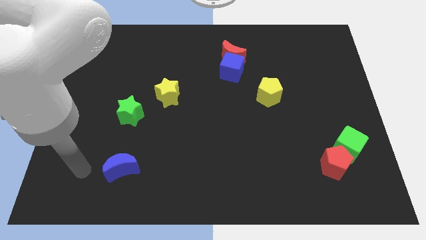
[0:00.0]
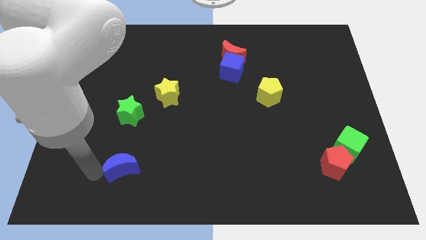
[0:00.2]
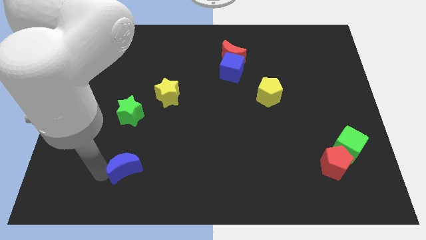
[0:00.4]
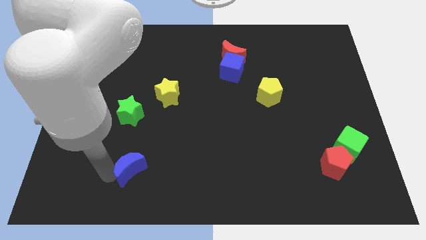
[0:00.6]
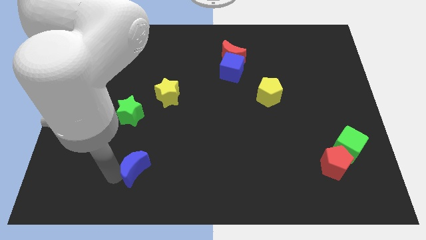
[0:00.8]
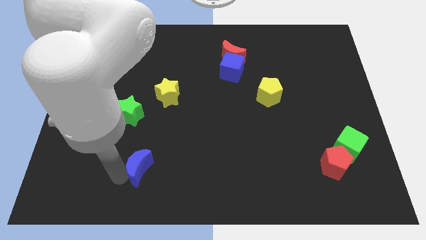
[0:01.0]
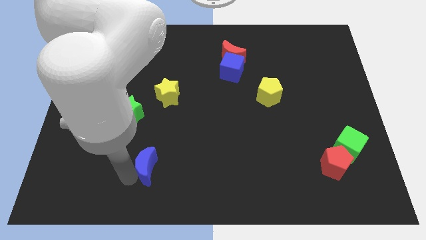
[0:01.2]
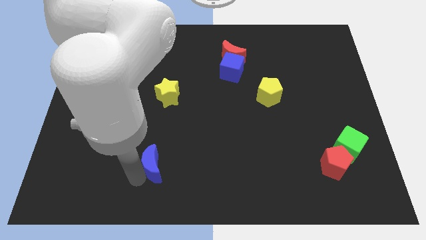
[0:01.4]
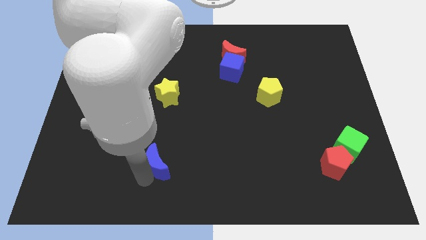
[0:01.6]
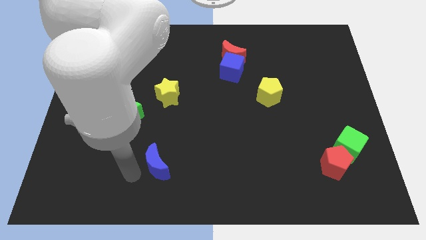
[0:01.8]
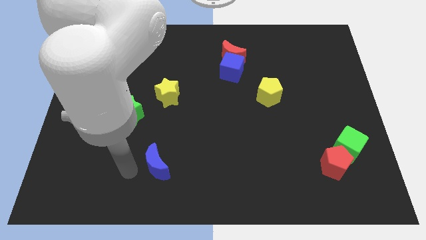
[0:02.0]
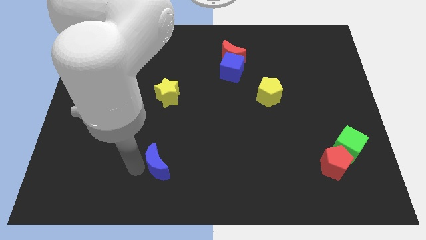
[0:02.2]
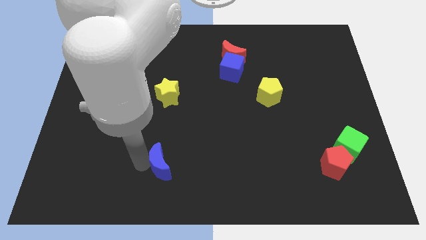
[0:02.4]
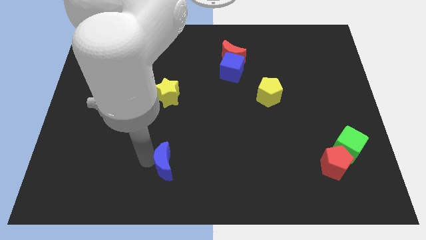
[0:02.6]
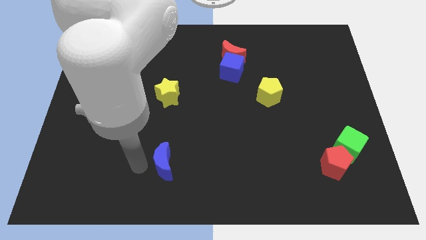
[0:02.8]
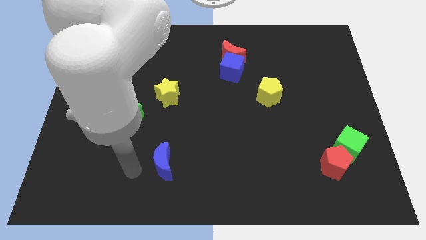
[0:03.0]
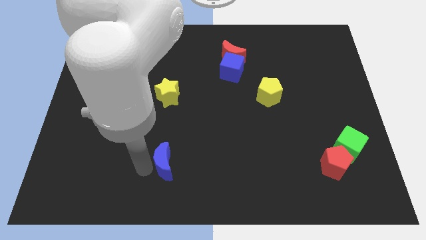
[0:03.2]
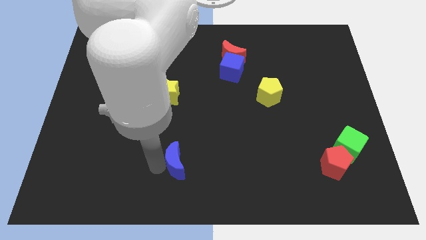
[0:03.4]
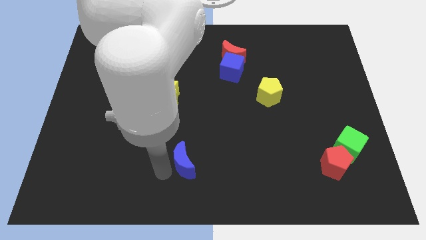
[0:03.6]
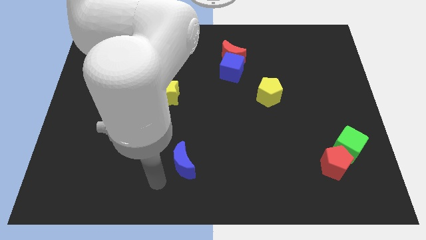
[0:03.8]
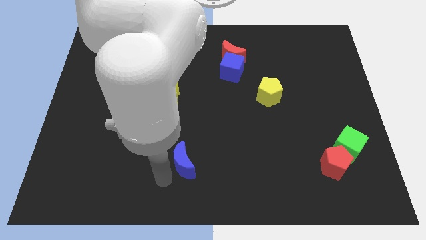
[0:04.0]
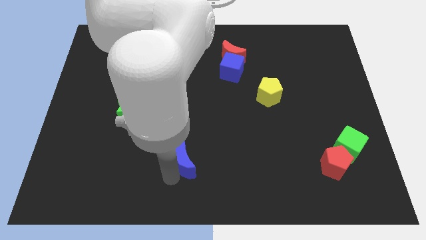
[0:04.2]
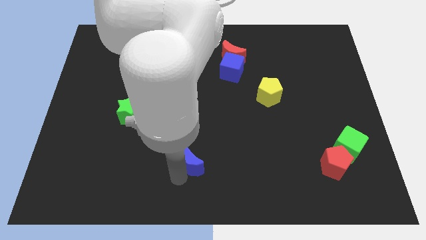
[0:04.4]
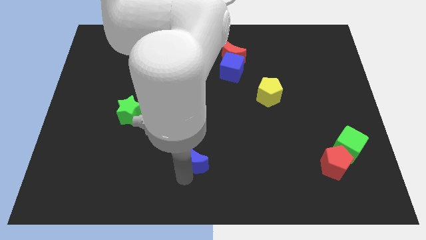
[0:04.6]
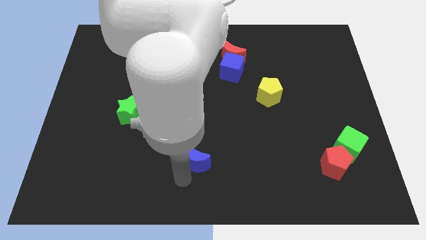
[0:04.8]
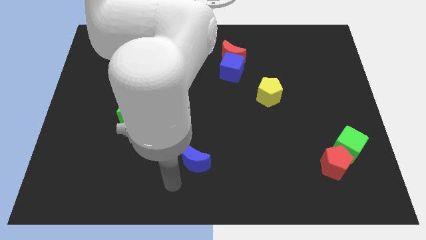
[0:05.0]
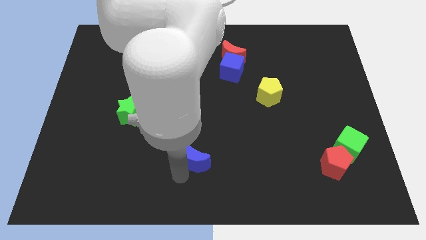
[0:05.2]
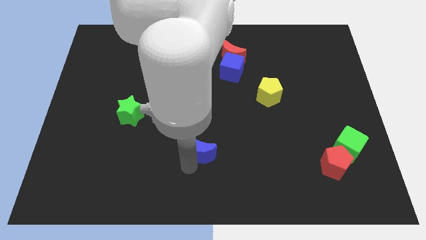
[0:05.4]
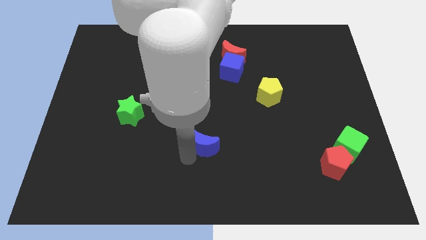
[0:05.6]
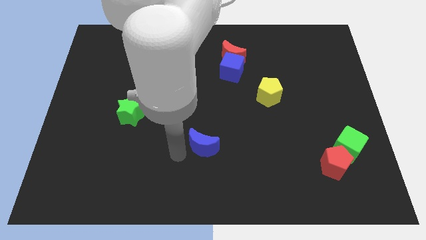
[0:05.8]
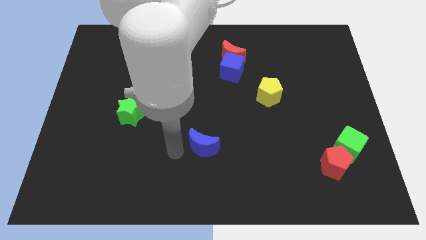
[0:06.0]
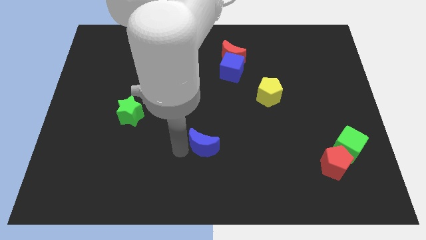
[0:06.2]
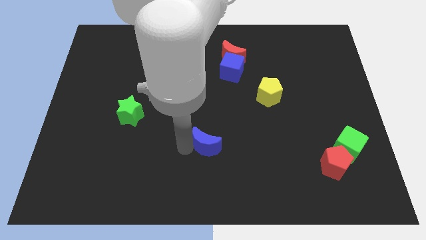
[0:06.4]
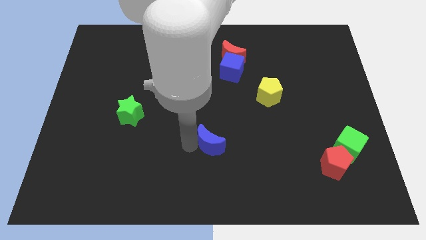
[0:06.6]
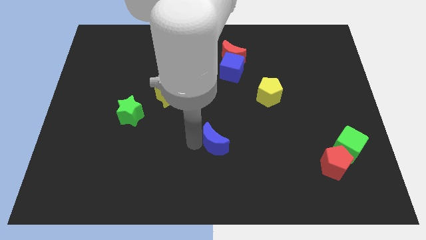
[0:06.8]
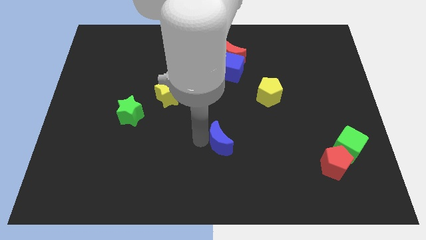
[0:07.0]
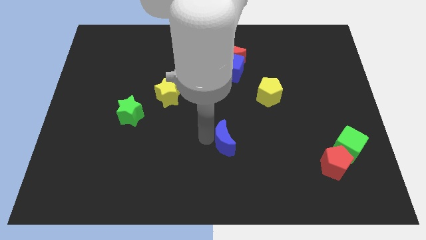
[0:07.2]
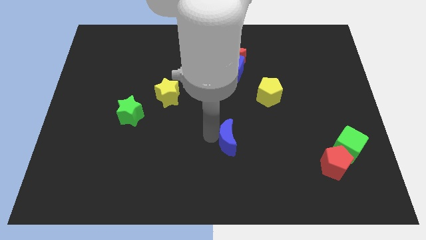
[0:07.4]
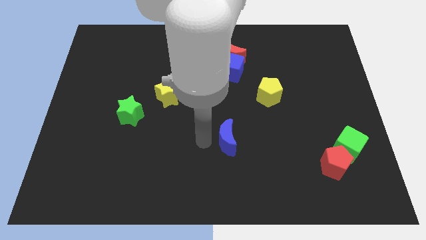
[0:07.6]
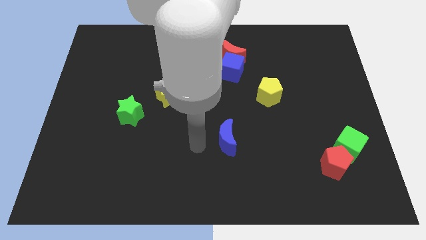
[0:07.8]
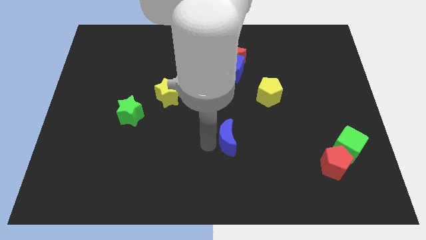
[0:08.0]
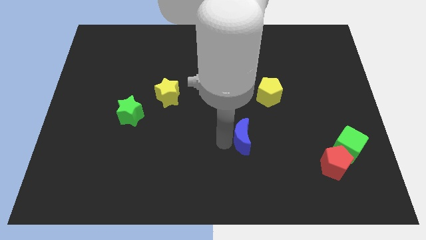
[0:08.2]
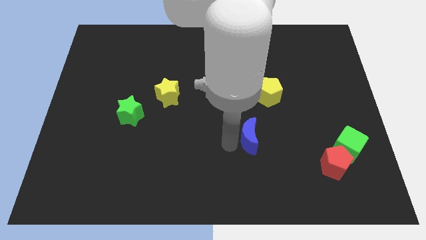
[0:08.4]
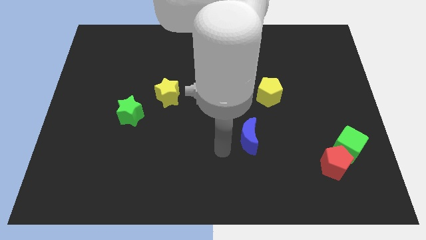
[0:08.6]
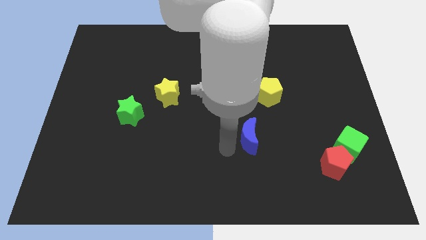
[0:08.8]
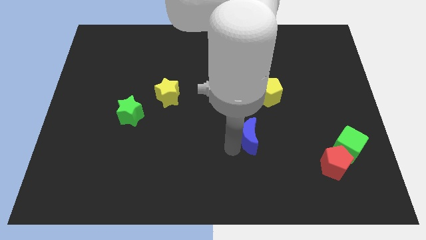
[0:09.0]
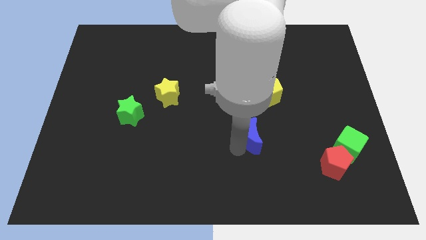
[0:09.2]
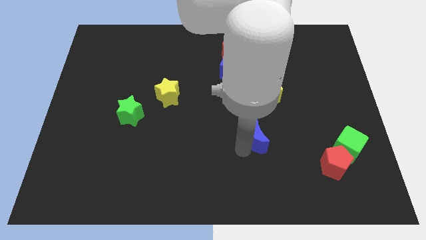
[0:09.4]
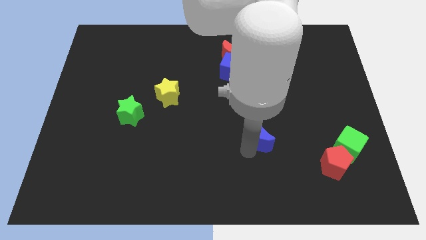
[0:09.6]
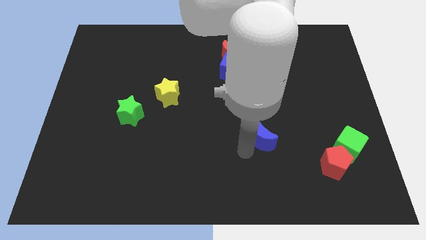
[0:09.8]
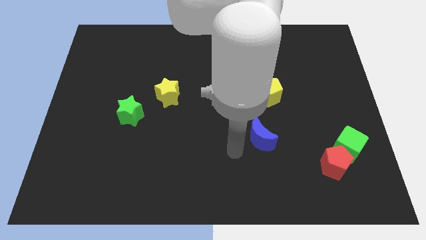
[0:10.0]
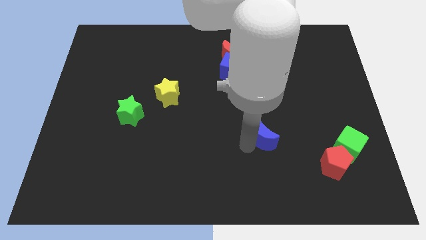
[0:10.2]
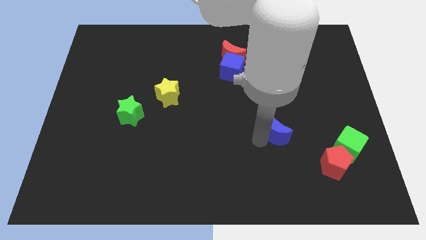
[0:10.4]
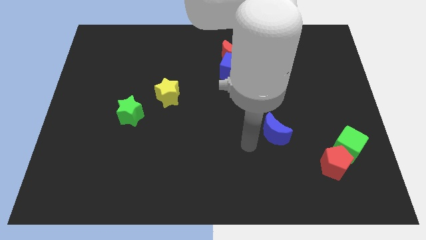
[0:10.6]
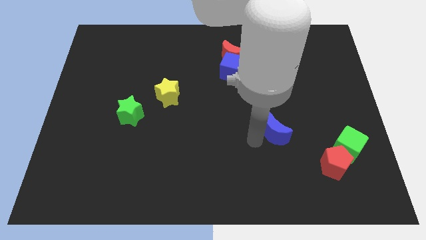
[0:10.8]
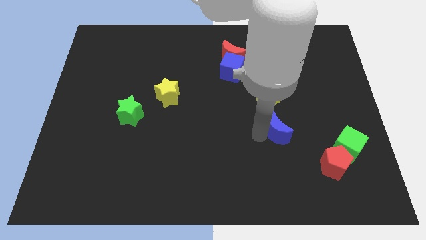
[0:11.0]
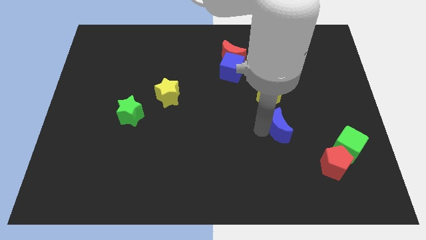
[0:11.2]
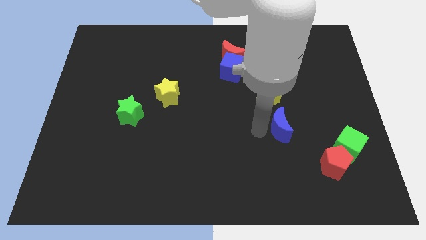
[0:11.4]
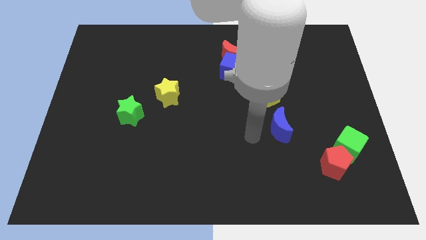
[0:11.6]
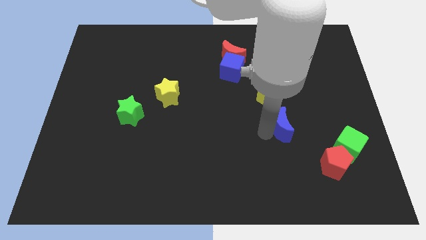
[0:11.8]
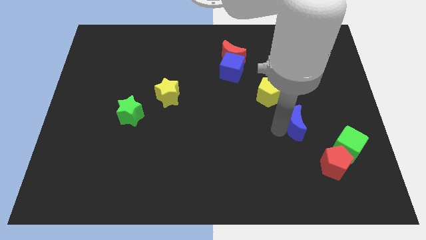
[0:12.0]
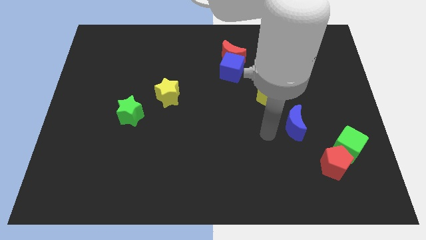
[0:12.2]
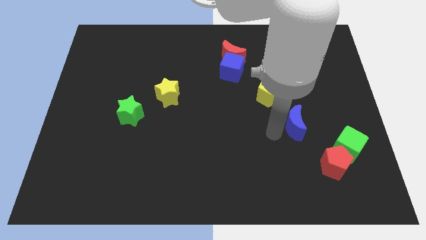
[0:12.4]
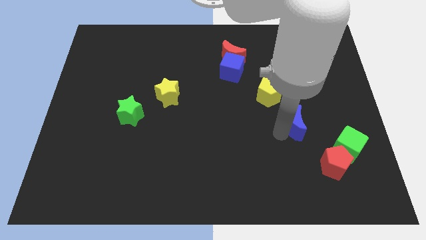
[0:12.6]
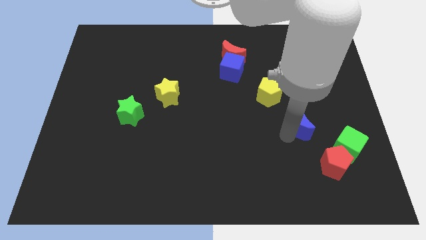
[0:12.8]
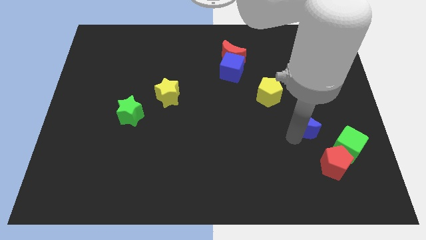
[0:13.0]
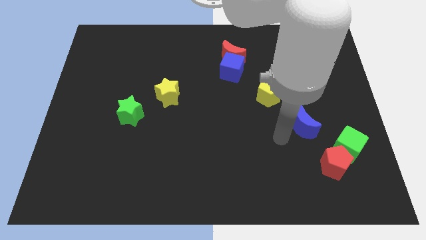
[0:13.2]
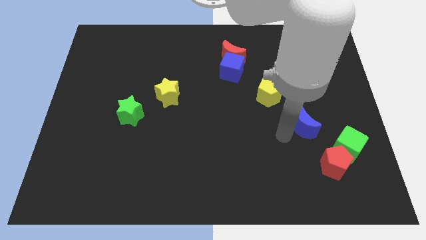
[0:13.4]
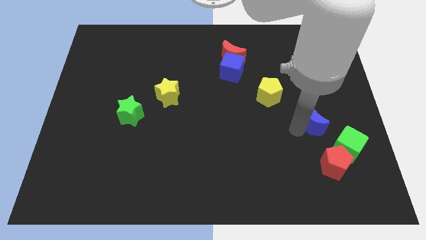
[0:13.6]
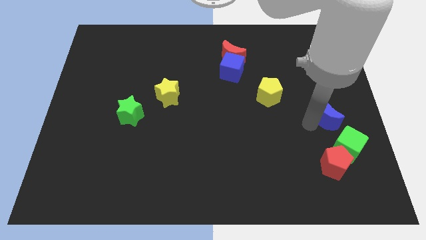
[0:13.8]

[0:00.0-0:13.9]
push the blue moon to the right side

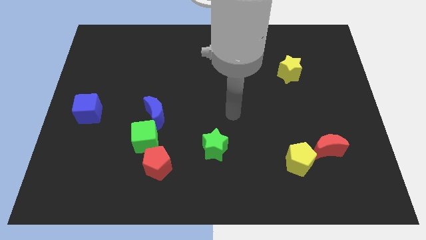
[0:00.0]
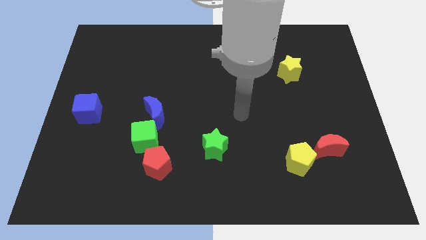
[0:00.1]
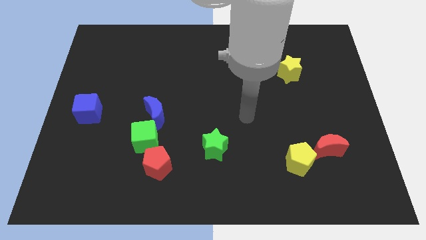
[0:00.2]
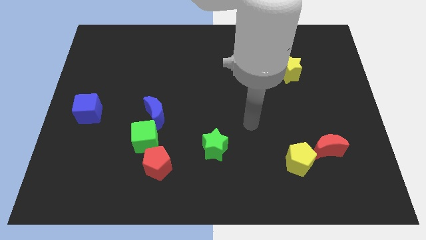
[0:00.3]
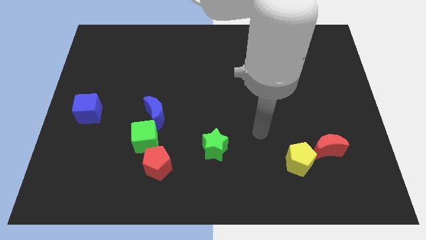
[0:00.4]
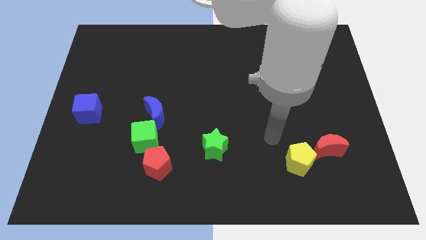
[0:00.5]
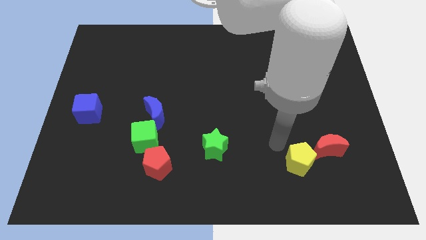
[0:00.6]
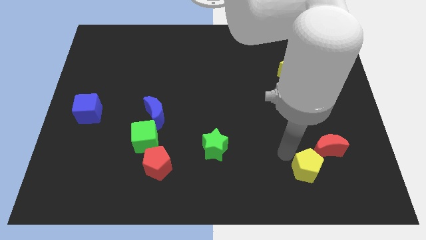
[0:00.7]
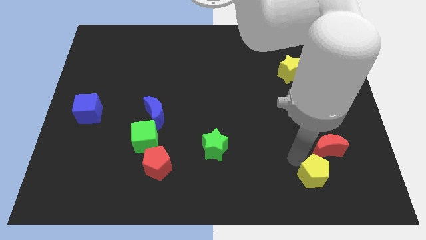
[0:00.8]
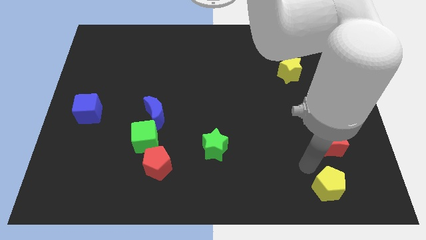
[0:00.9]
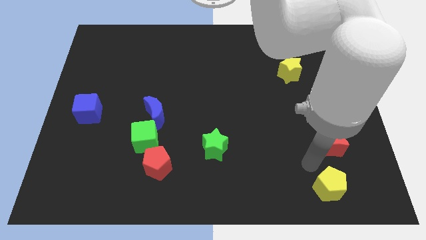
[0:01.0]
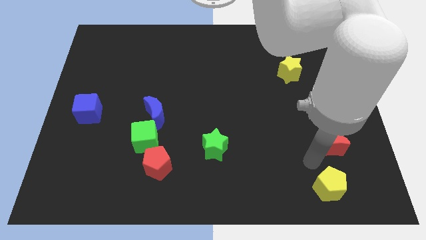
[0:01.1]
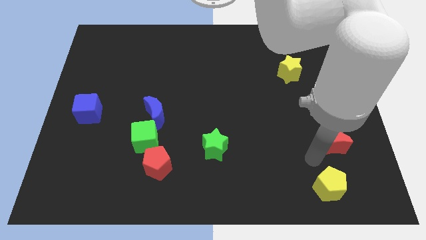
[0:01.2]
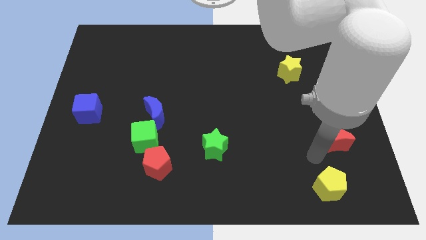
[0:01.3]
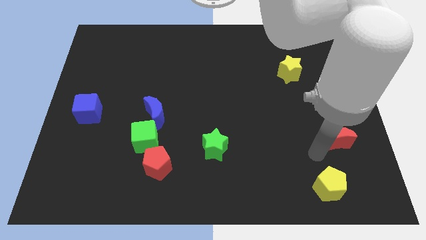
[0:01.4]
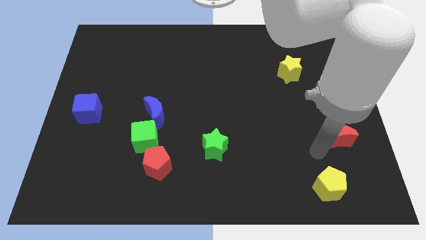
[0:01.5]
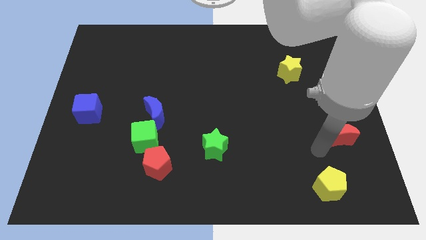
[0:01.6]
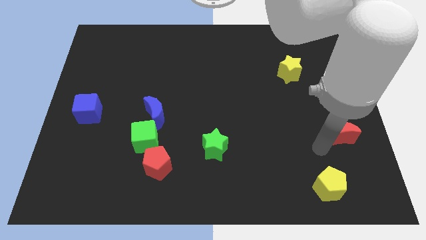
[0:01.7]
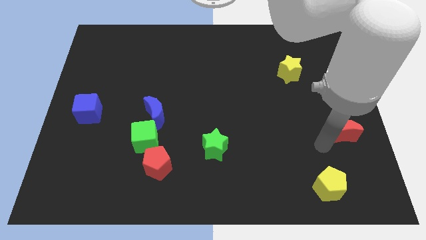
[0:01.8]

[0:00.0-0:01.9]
move the red moon to the right side of the board

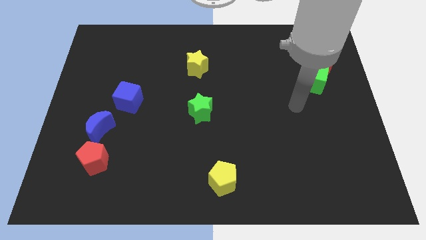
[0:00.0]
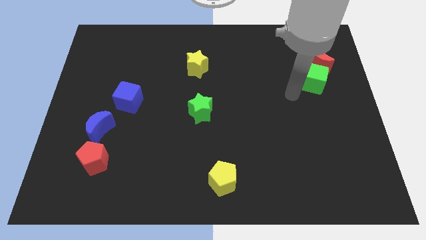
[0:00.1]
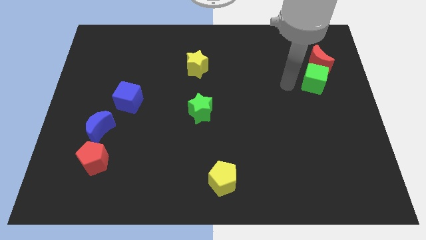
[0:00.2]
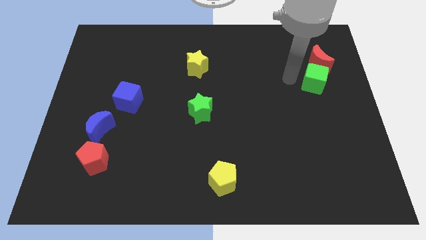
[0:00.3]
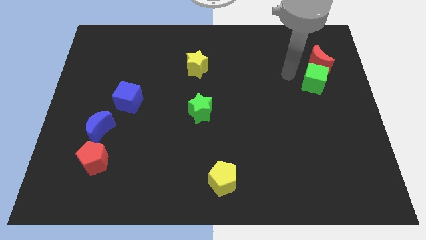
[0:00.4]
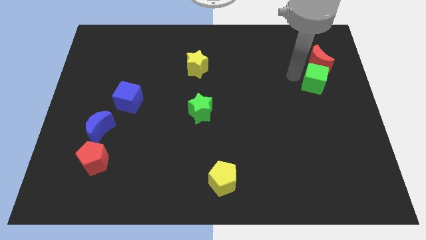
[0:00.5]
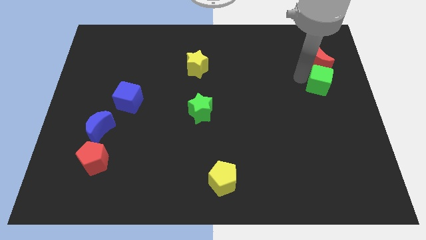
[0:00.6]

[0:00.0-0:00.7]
put the green cube to the center right
